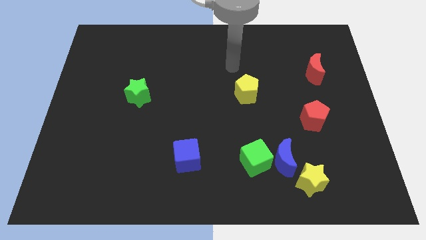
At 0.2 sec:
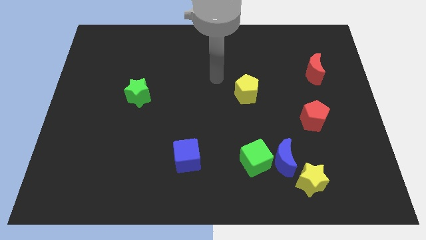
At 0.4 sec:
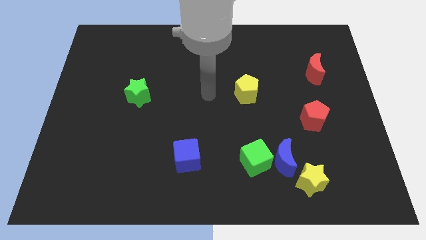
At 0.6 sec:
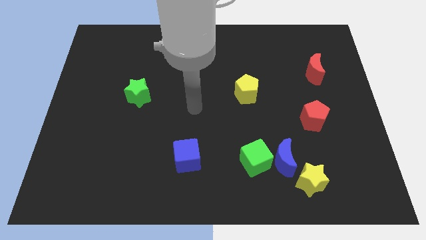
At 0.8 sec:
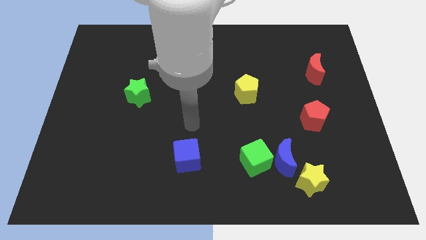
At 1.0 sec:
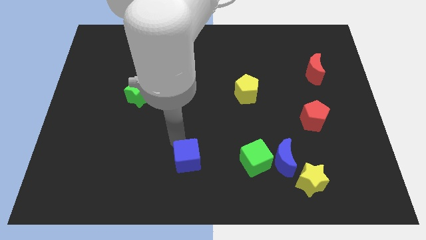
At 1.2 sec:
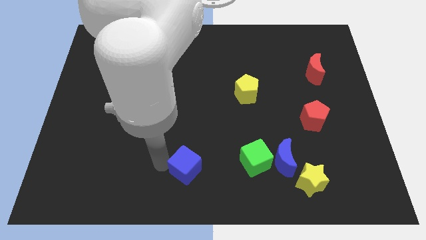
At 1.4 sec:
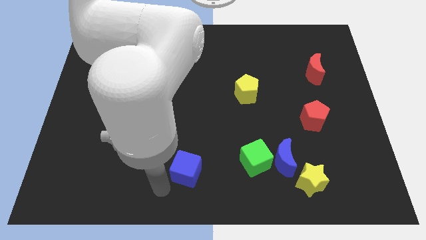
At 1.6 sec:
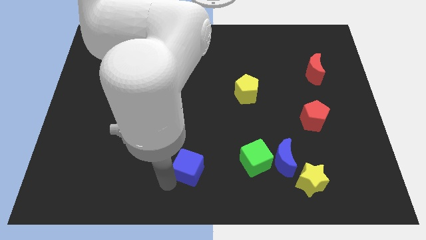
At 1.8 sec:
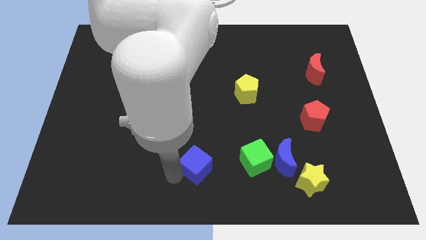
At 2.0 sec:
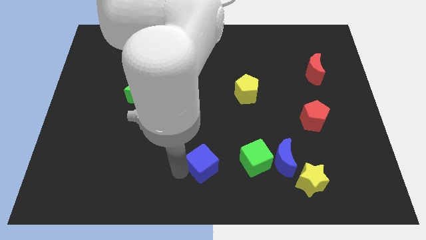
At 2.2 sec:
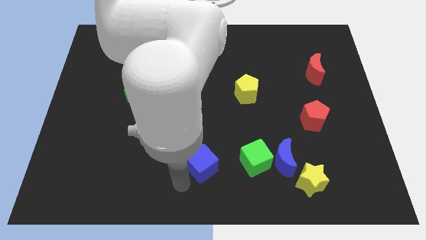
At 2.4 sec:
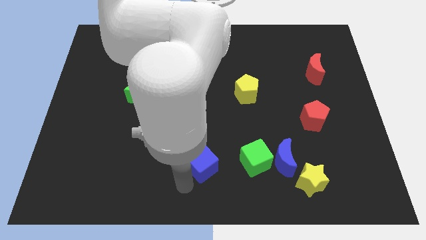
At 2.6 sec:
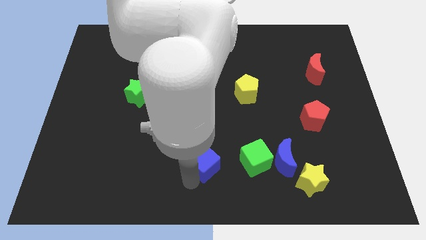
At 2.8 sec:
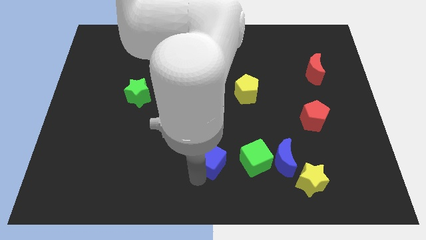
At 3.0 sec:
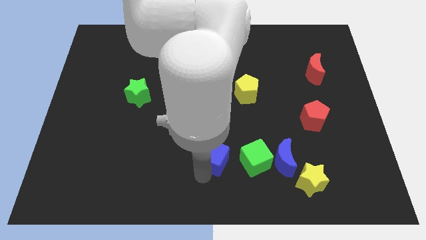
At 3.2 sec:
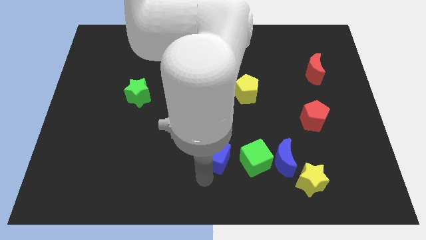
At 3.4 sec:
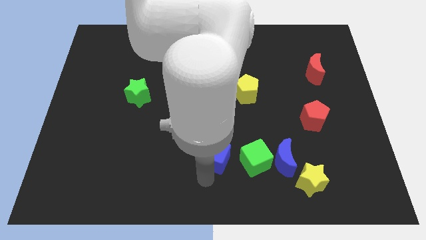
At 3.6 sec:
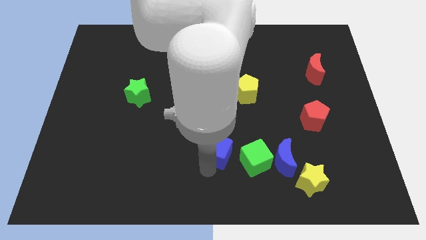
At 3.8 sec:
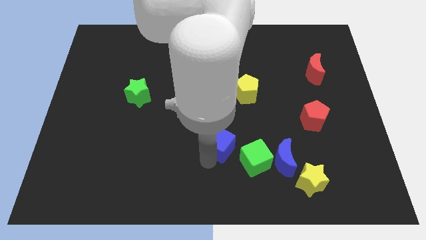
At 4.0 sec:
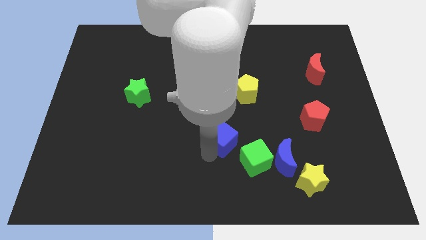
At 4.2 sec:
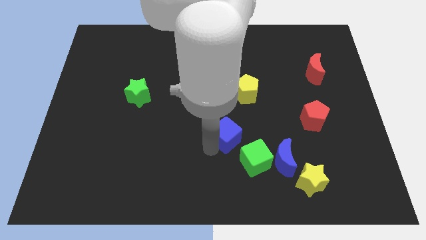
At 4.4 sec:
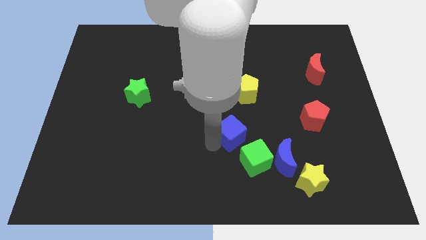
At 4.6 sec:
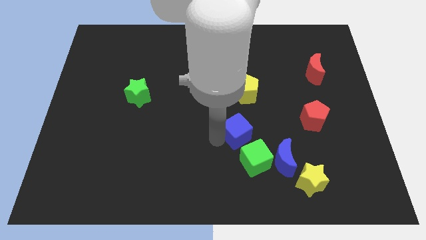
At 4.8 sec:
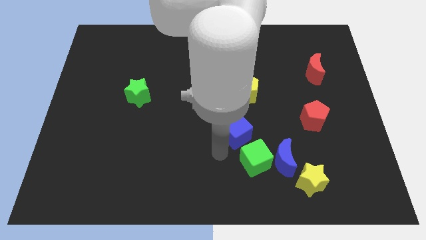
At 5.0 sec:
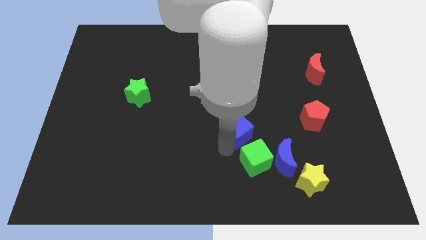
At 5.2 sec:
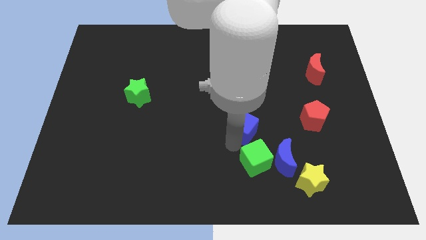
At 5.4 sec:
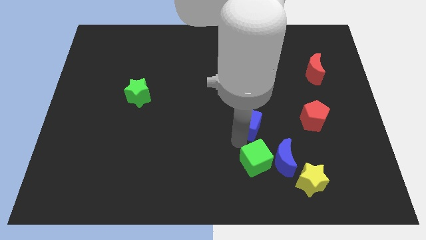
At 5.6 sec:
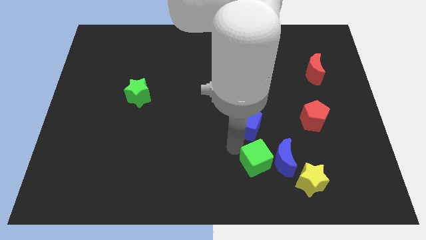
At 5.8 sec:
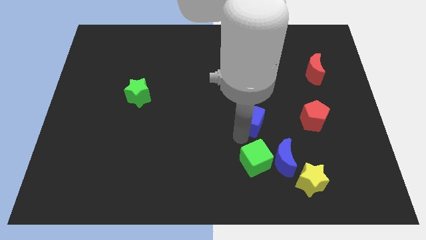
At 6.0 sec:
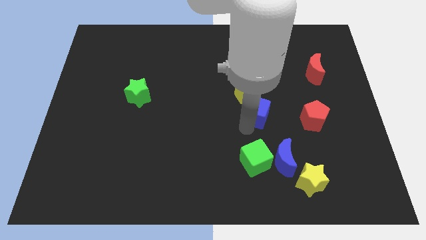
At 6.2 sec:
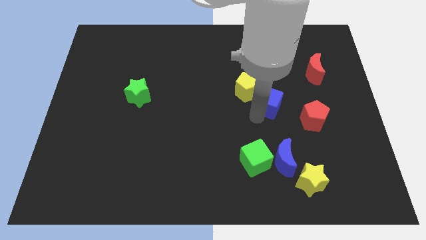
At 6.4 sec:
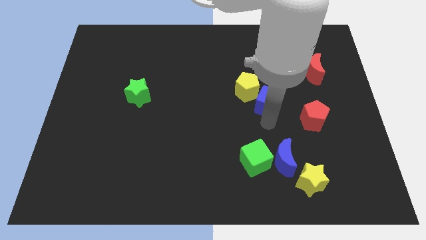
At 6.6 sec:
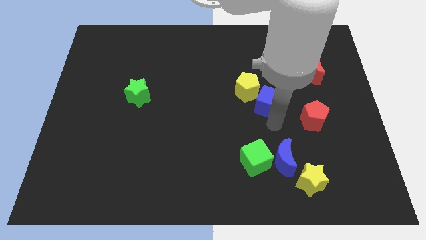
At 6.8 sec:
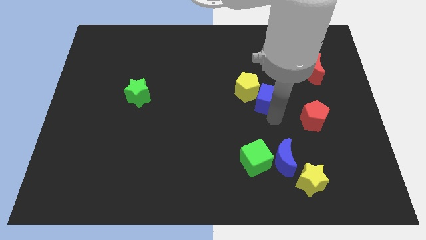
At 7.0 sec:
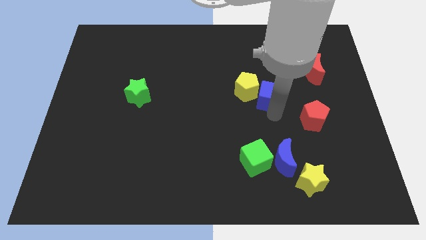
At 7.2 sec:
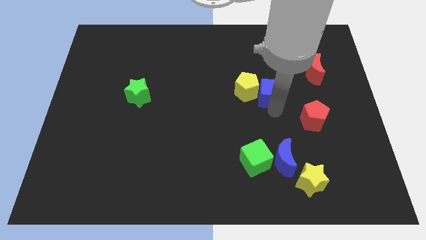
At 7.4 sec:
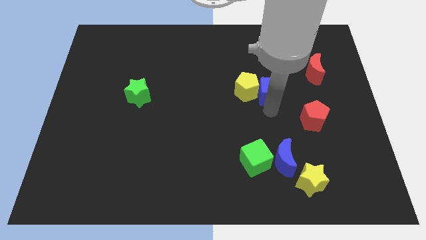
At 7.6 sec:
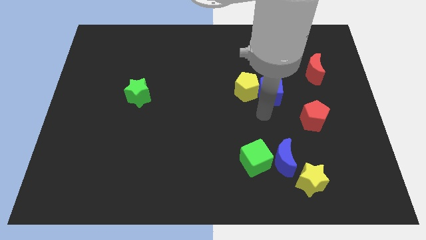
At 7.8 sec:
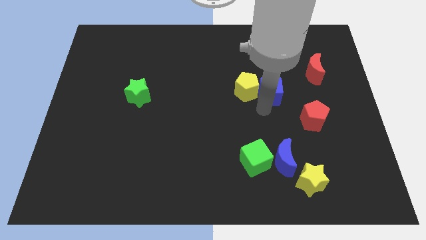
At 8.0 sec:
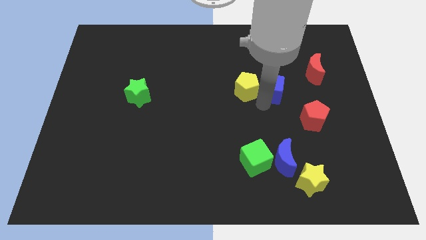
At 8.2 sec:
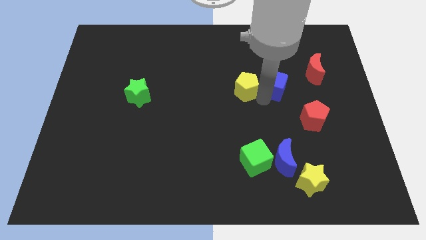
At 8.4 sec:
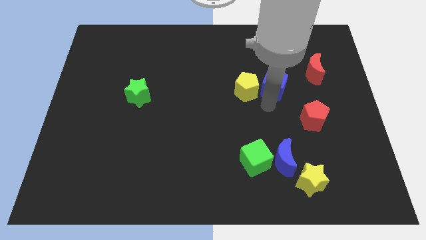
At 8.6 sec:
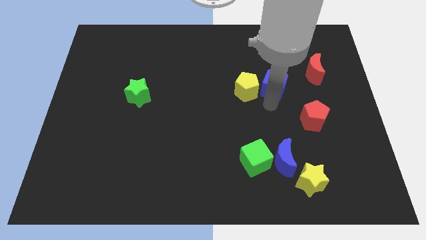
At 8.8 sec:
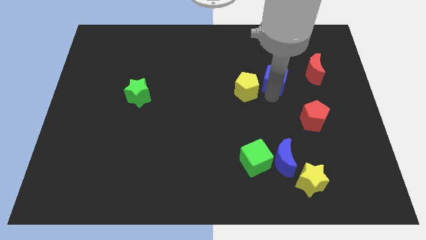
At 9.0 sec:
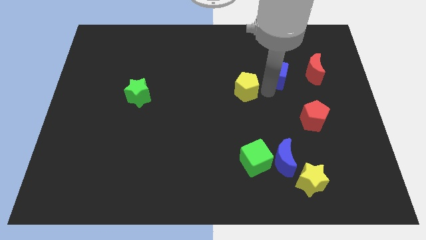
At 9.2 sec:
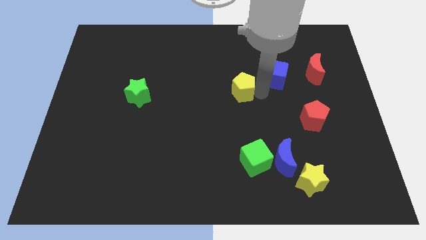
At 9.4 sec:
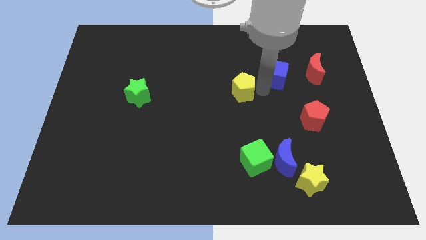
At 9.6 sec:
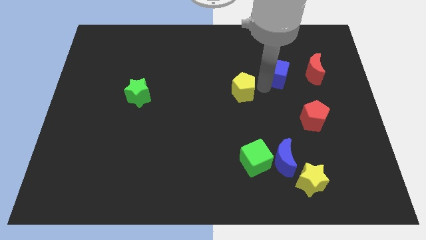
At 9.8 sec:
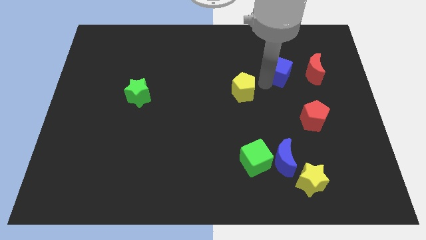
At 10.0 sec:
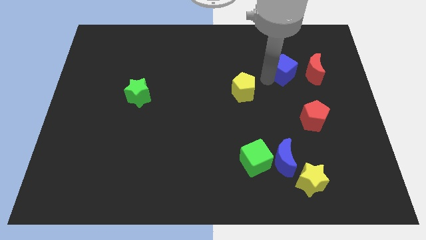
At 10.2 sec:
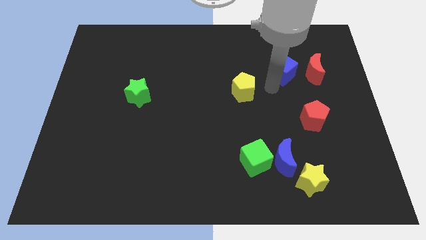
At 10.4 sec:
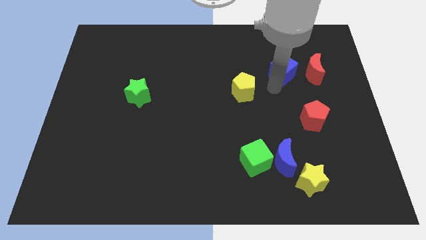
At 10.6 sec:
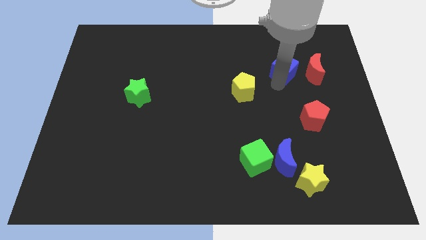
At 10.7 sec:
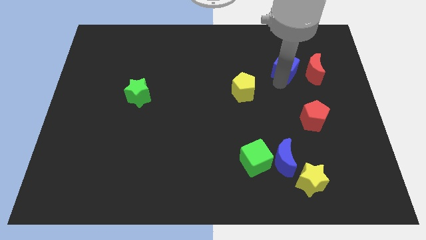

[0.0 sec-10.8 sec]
push the blue cube diagonally up and to the left of the red moon

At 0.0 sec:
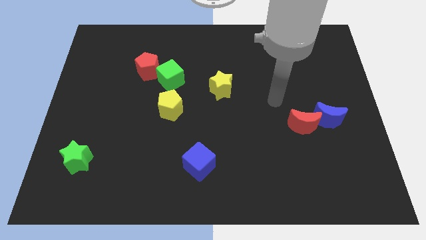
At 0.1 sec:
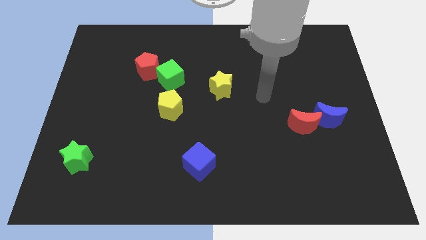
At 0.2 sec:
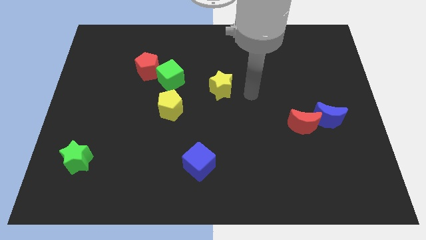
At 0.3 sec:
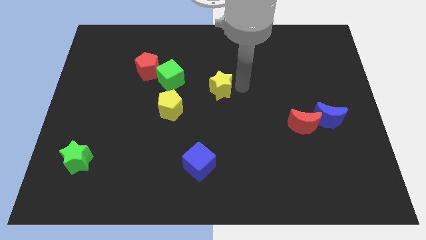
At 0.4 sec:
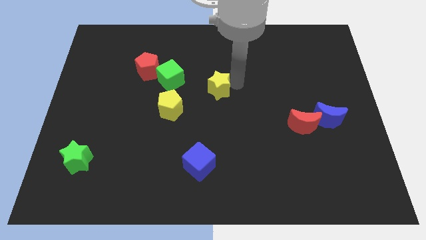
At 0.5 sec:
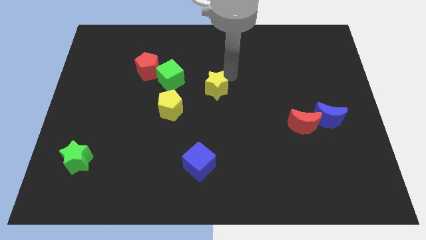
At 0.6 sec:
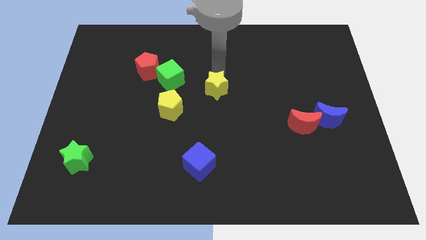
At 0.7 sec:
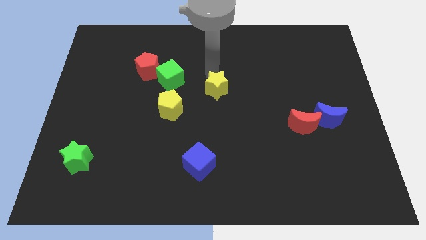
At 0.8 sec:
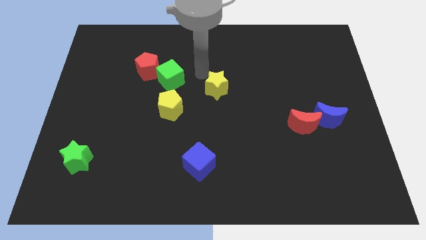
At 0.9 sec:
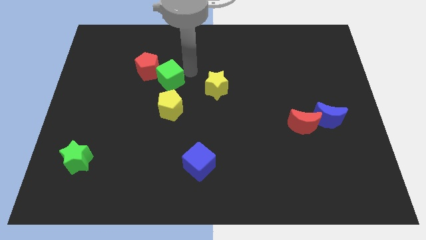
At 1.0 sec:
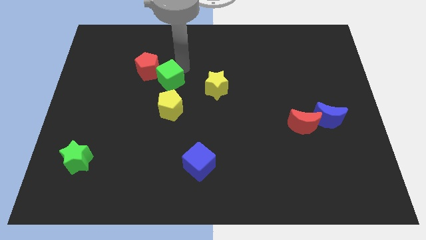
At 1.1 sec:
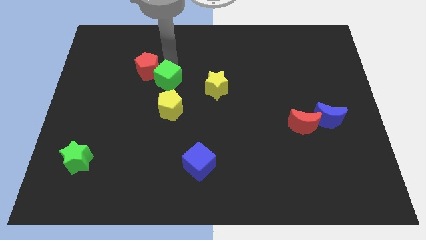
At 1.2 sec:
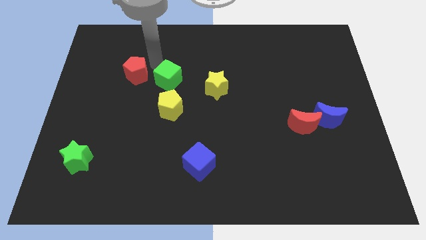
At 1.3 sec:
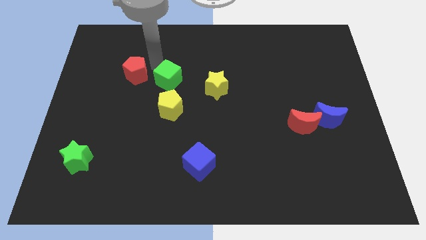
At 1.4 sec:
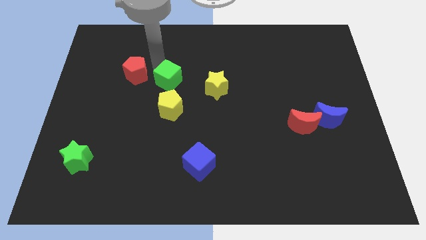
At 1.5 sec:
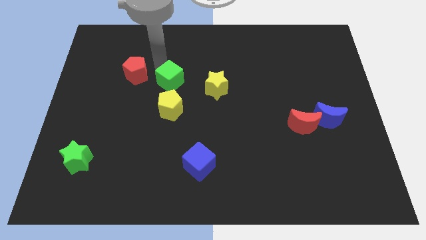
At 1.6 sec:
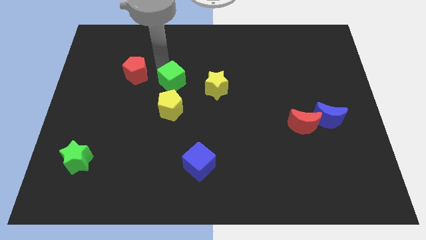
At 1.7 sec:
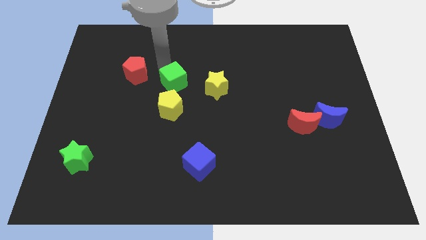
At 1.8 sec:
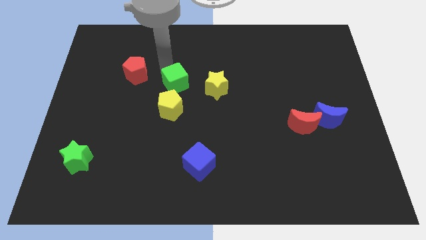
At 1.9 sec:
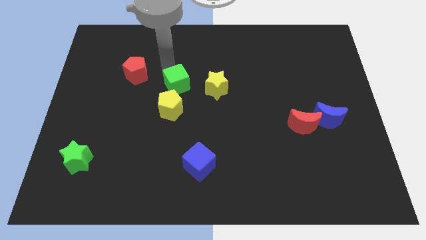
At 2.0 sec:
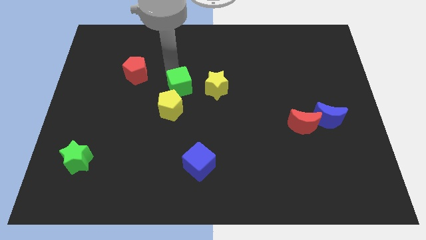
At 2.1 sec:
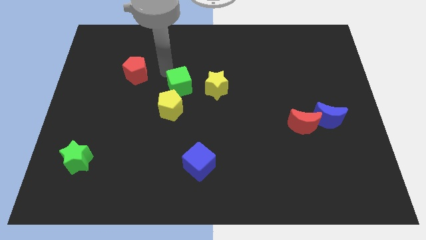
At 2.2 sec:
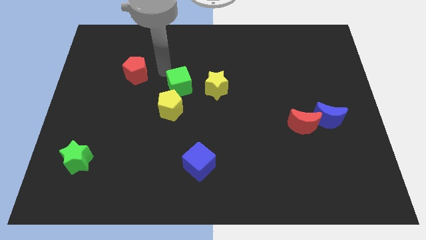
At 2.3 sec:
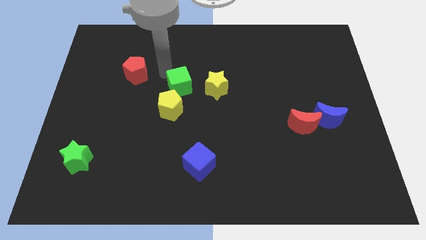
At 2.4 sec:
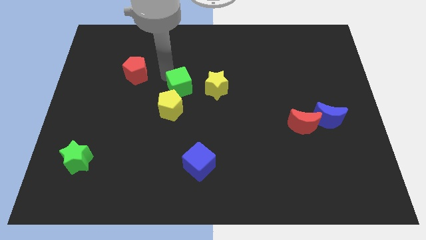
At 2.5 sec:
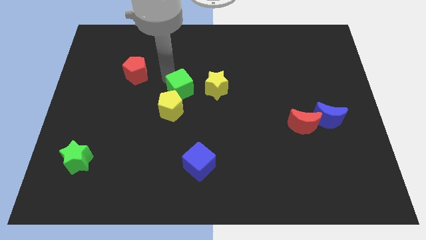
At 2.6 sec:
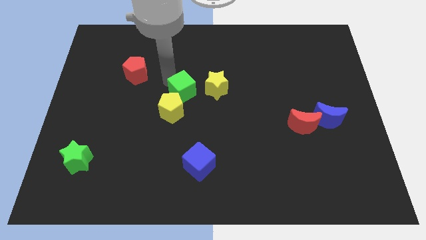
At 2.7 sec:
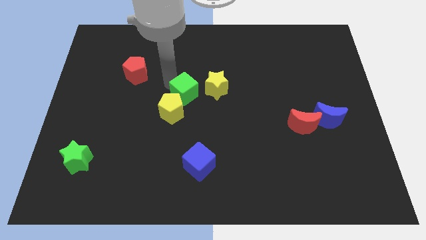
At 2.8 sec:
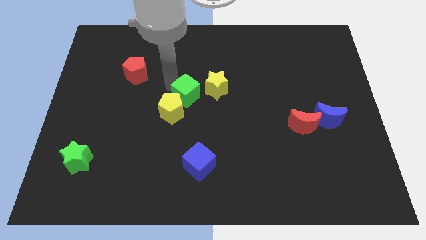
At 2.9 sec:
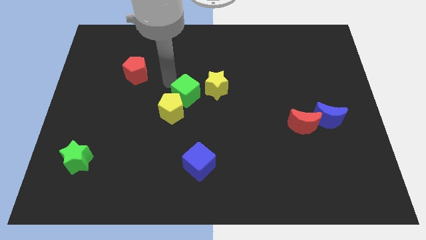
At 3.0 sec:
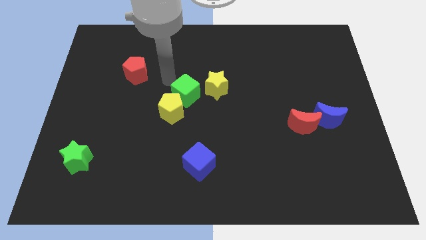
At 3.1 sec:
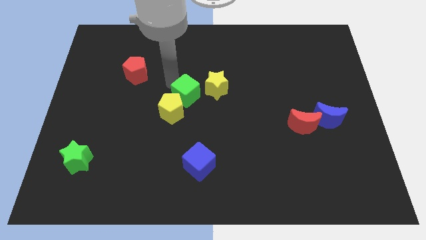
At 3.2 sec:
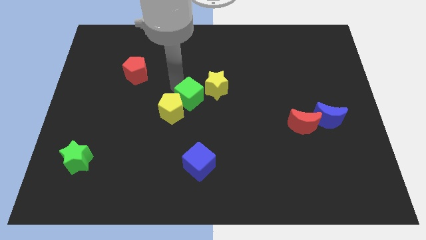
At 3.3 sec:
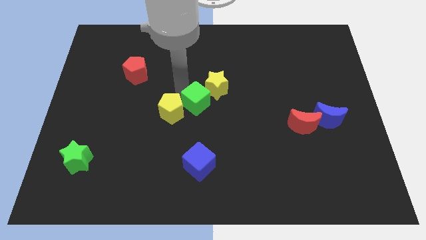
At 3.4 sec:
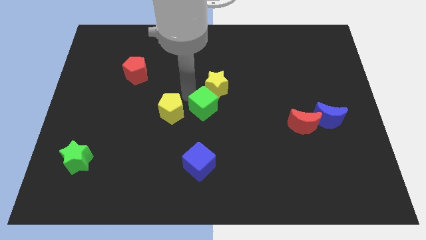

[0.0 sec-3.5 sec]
move the green cube below the yellow star
